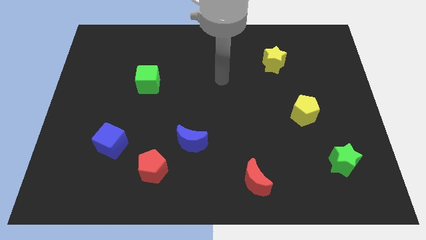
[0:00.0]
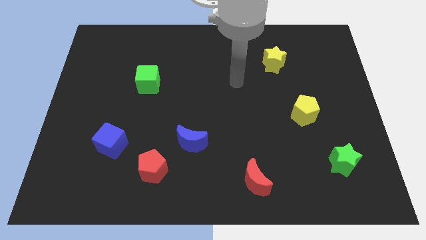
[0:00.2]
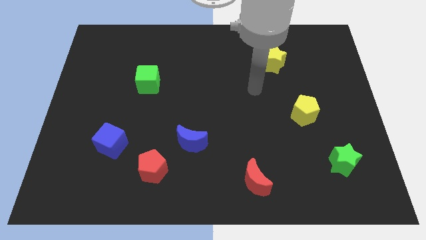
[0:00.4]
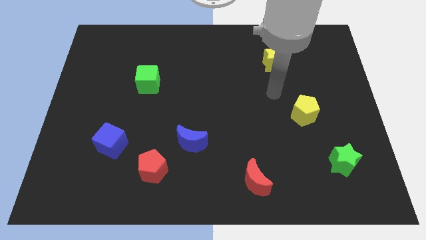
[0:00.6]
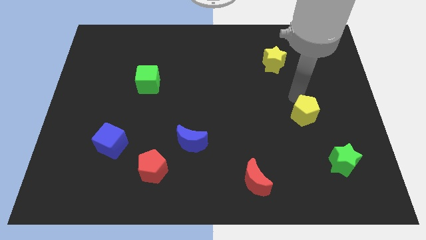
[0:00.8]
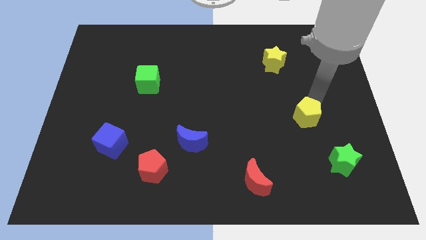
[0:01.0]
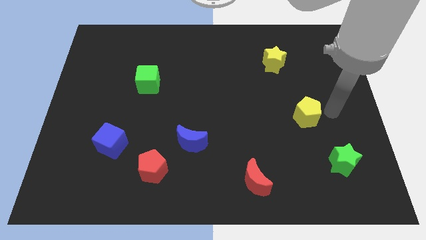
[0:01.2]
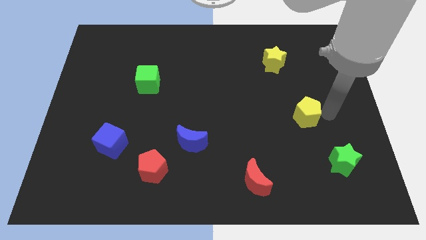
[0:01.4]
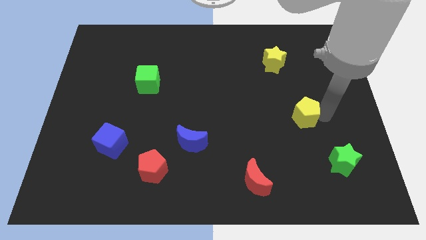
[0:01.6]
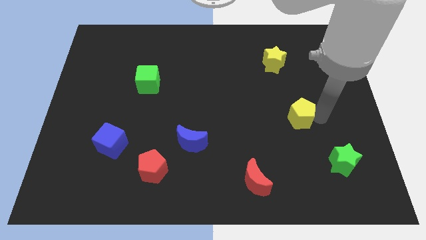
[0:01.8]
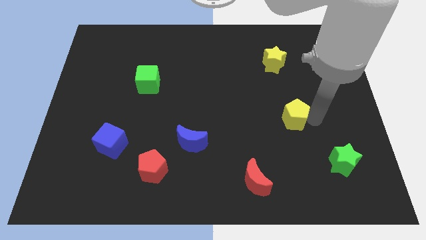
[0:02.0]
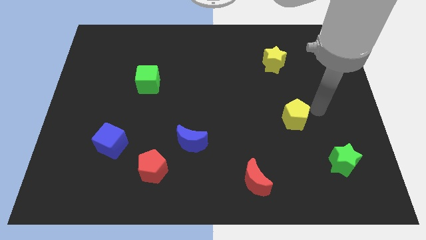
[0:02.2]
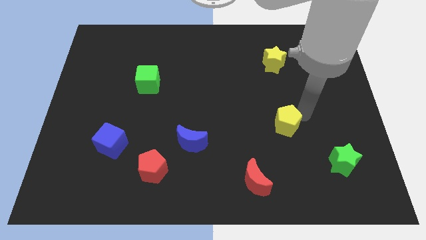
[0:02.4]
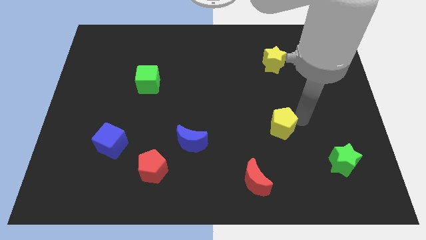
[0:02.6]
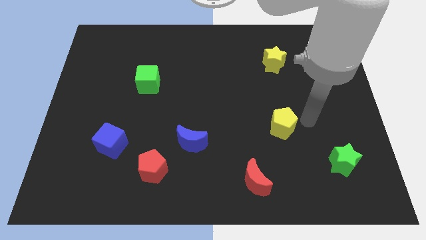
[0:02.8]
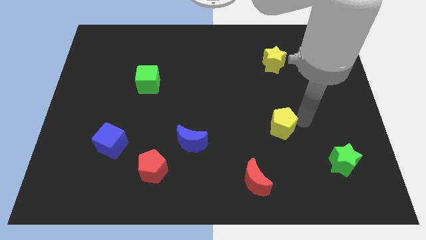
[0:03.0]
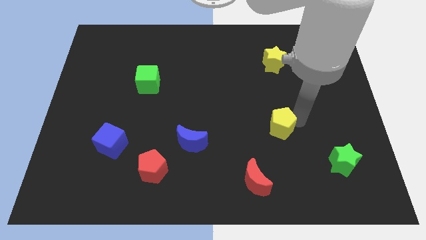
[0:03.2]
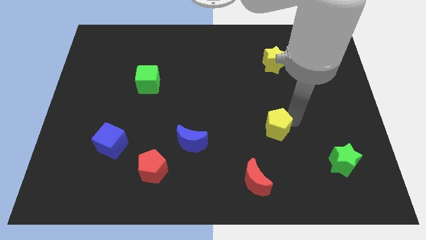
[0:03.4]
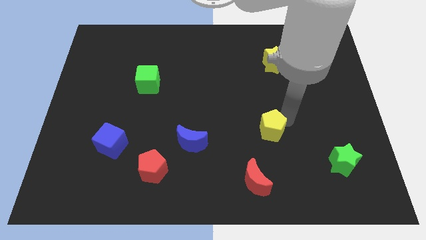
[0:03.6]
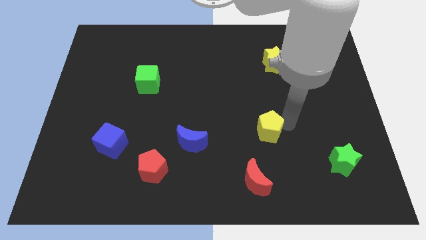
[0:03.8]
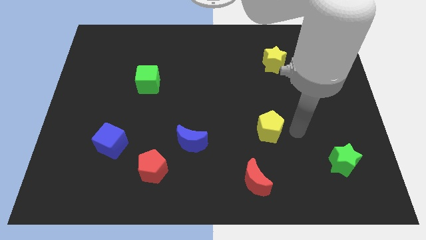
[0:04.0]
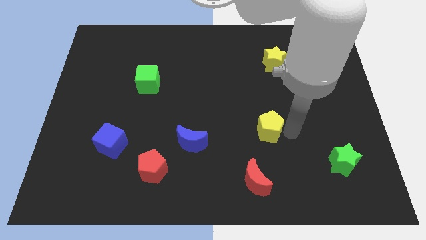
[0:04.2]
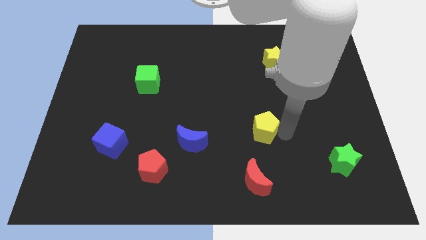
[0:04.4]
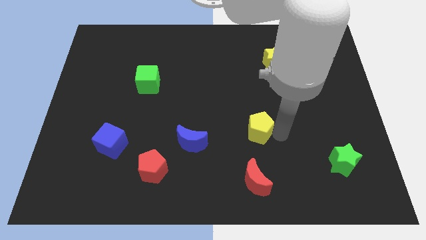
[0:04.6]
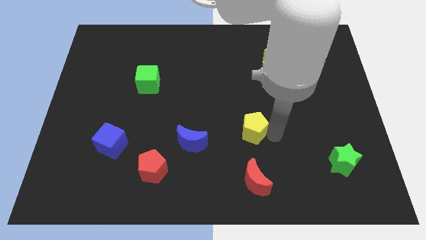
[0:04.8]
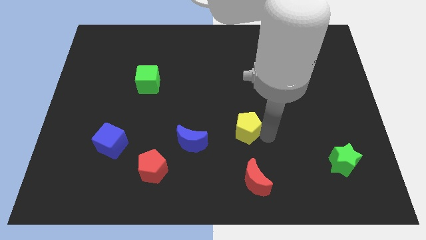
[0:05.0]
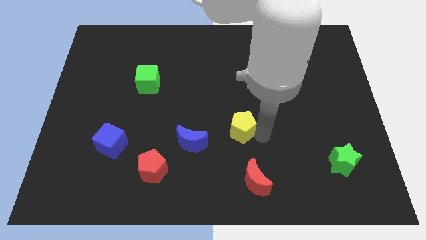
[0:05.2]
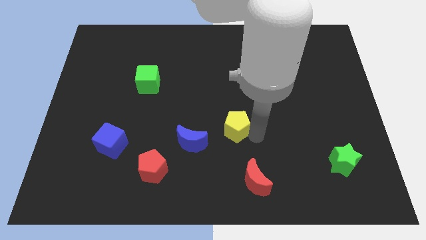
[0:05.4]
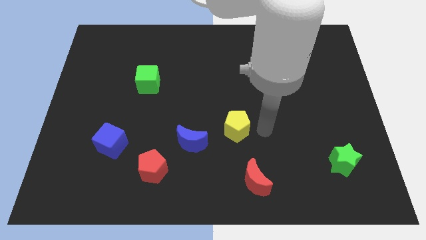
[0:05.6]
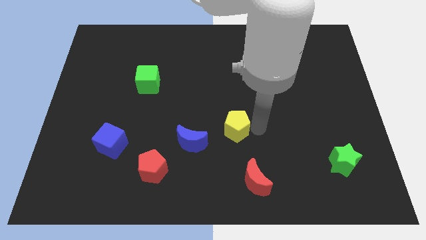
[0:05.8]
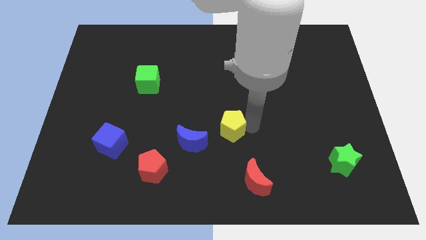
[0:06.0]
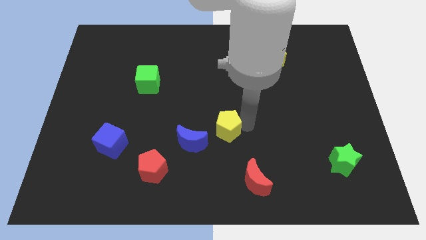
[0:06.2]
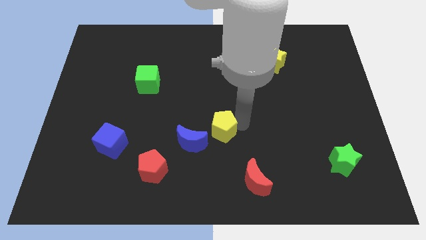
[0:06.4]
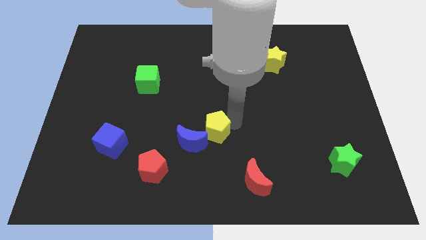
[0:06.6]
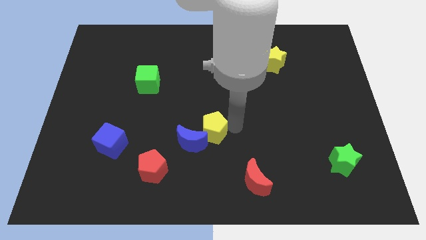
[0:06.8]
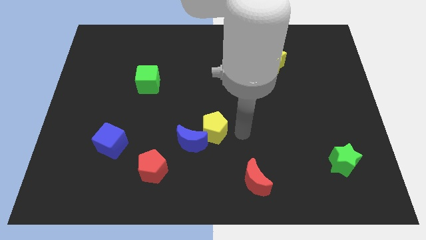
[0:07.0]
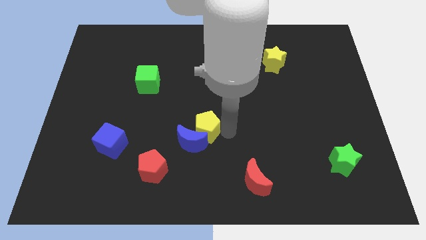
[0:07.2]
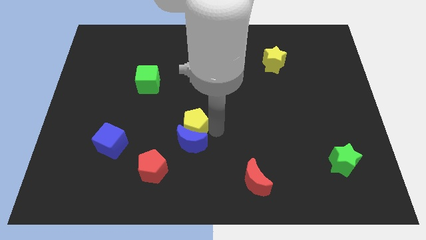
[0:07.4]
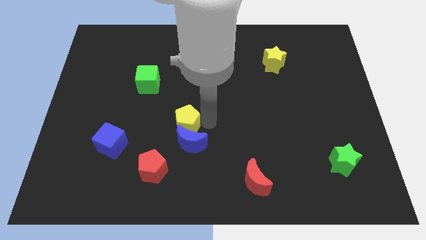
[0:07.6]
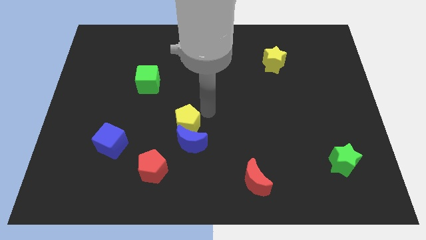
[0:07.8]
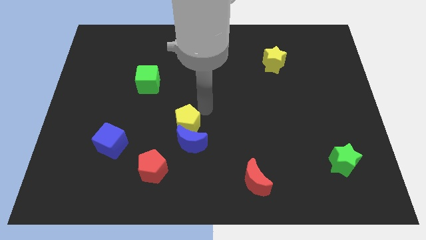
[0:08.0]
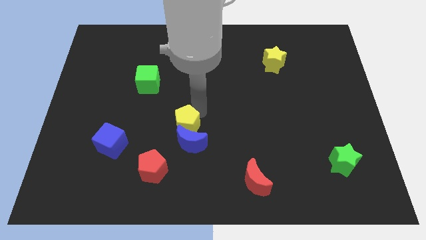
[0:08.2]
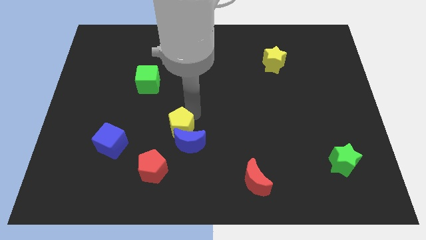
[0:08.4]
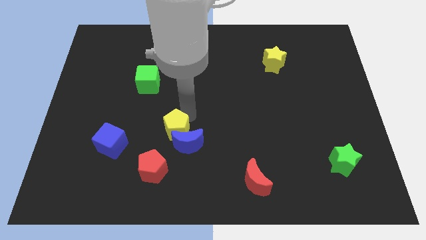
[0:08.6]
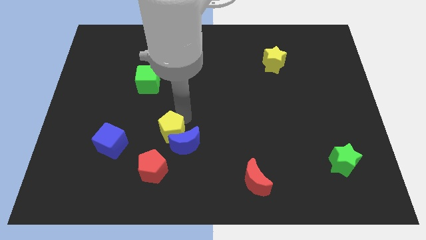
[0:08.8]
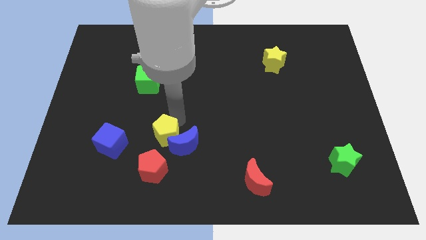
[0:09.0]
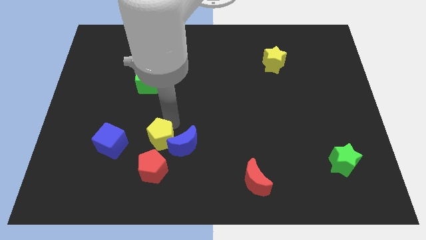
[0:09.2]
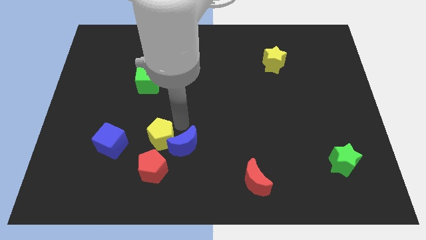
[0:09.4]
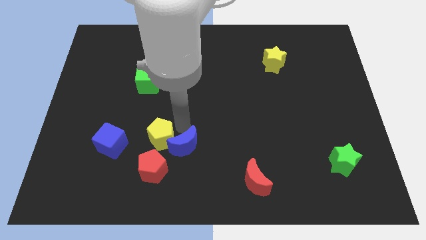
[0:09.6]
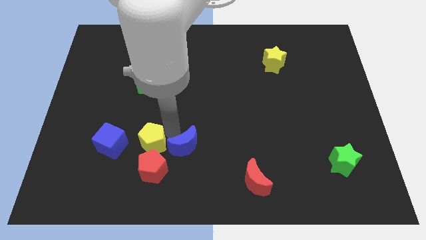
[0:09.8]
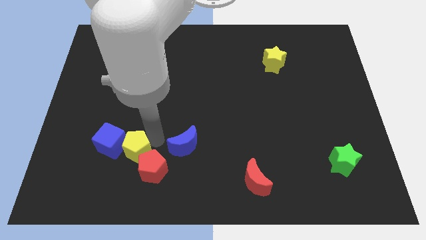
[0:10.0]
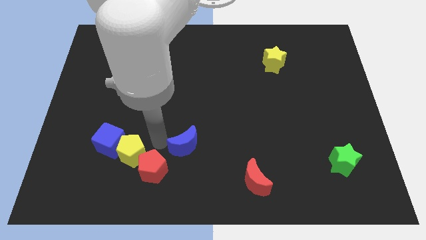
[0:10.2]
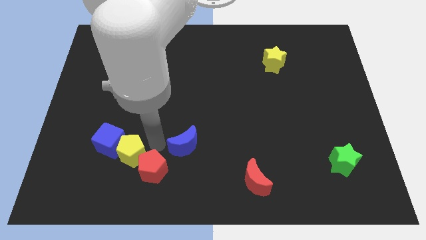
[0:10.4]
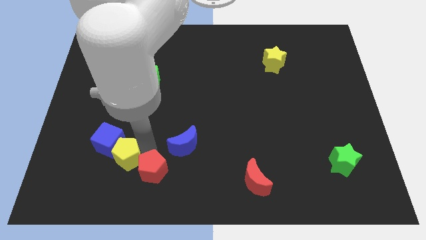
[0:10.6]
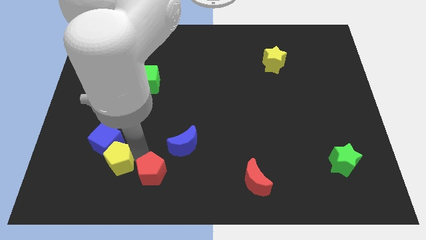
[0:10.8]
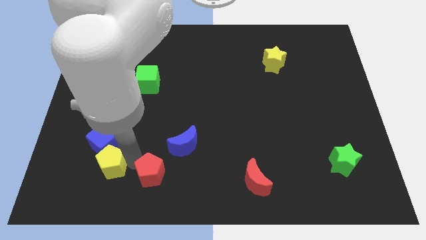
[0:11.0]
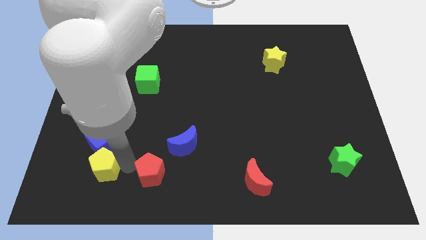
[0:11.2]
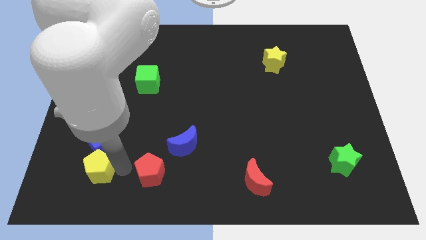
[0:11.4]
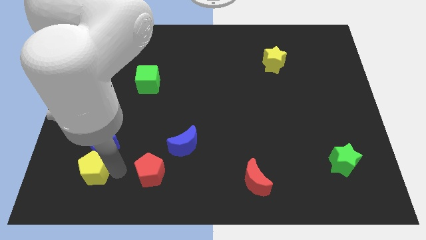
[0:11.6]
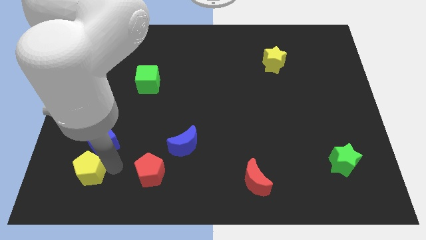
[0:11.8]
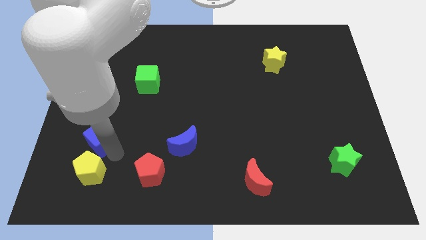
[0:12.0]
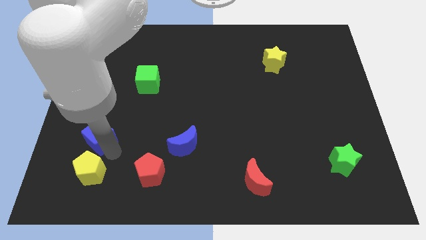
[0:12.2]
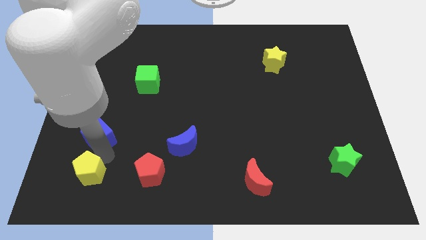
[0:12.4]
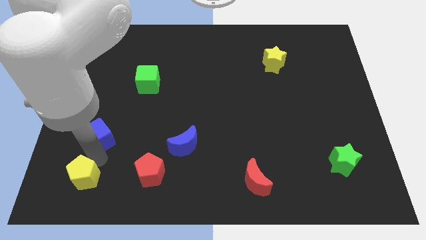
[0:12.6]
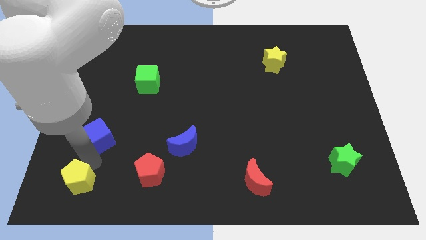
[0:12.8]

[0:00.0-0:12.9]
move the yellow pentagon to the lower left corner

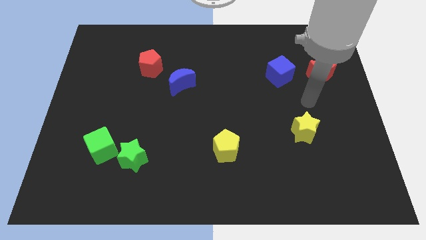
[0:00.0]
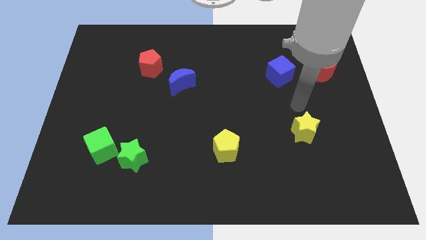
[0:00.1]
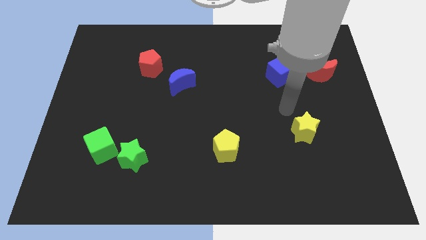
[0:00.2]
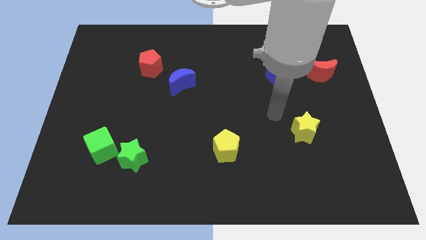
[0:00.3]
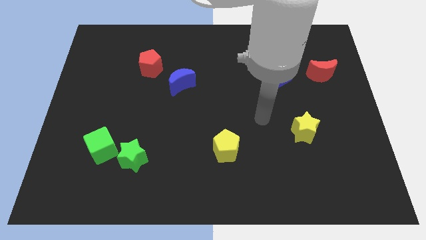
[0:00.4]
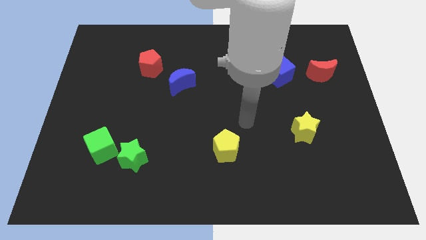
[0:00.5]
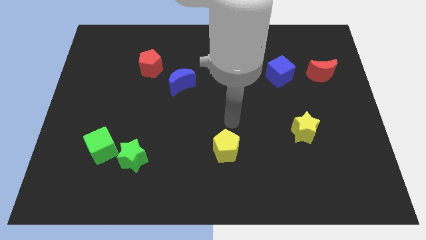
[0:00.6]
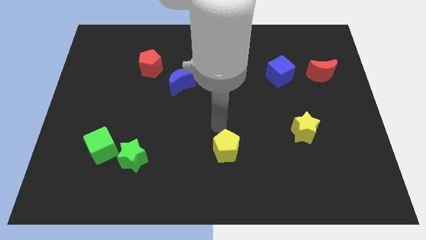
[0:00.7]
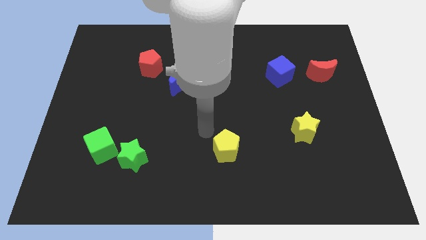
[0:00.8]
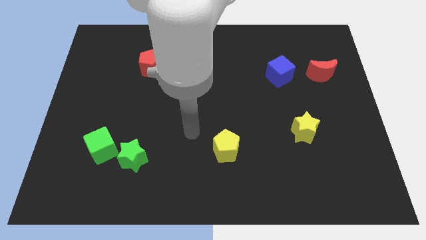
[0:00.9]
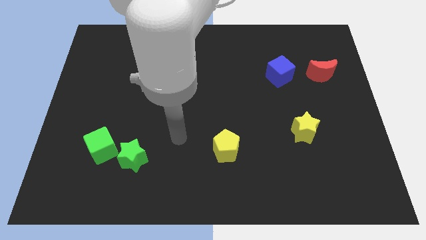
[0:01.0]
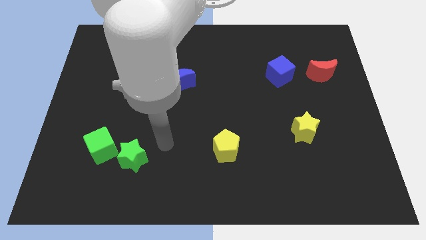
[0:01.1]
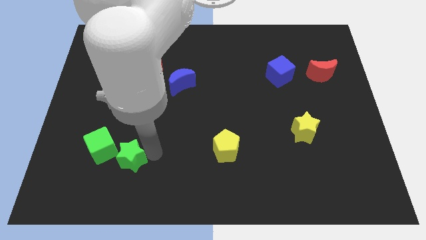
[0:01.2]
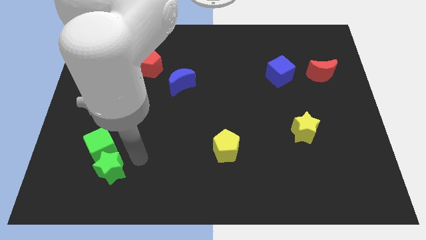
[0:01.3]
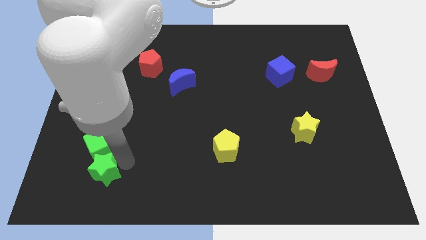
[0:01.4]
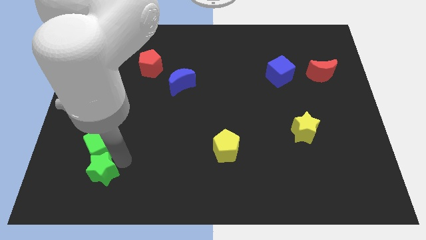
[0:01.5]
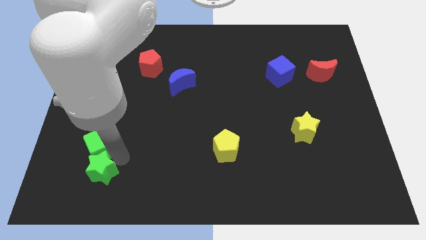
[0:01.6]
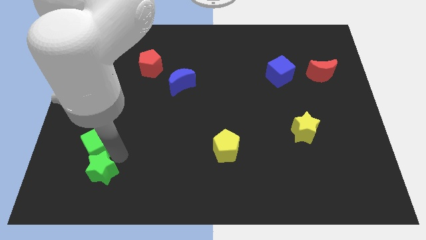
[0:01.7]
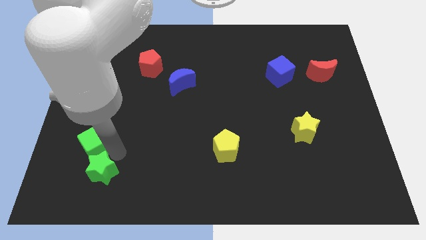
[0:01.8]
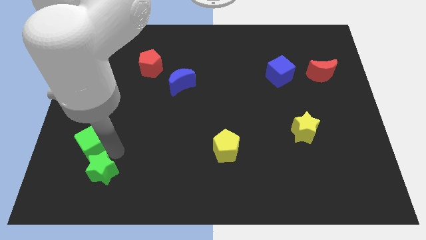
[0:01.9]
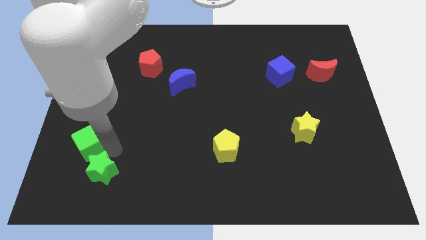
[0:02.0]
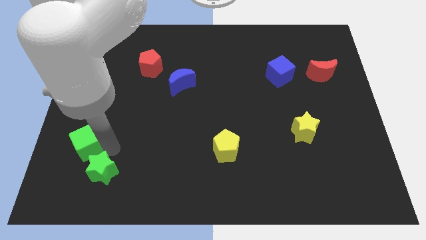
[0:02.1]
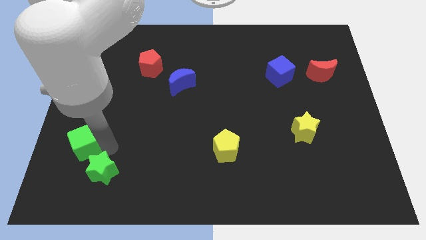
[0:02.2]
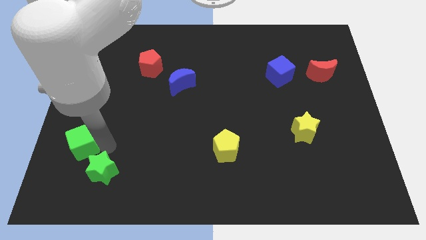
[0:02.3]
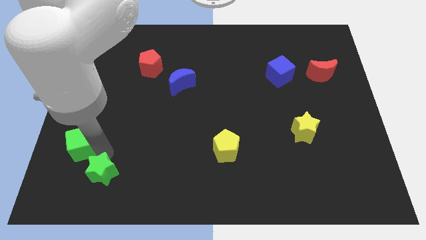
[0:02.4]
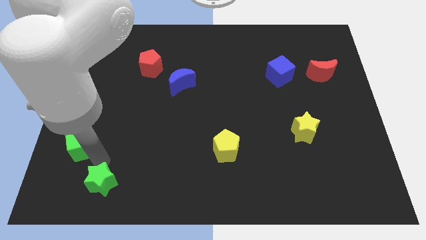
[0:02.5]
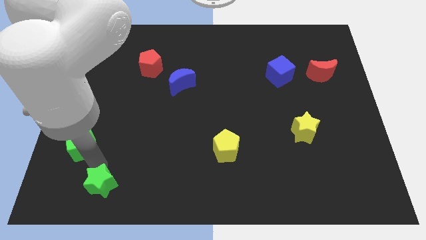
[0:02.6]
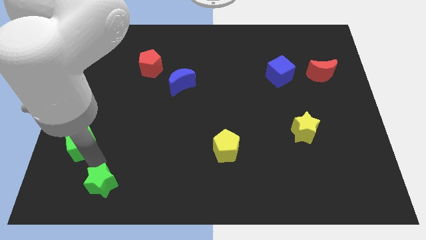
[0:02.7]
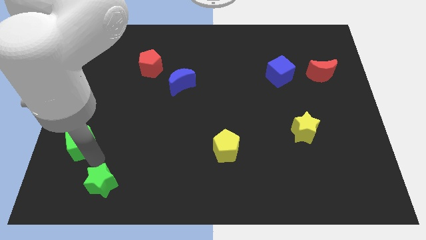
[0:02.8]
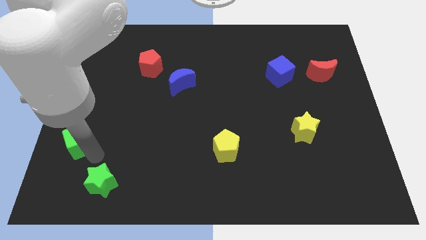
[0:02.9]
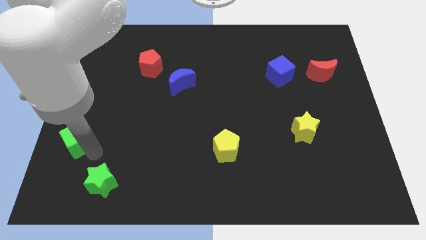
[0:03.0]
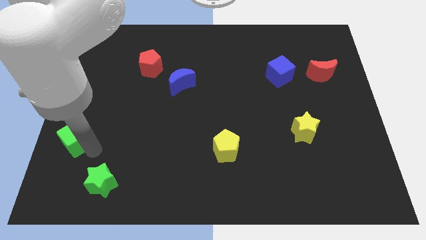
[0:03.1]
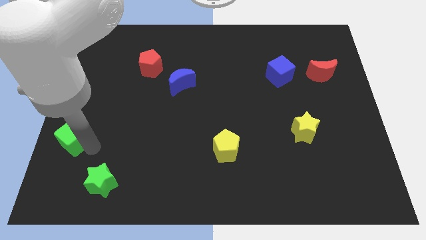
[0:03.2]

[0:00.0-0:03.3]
slide the green cube to the left side of the board
